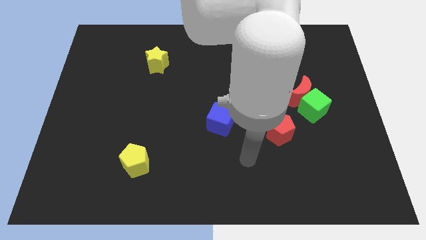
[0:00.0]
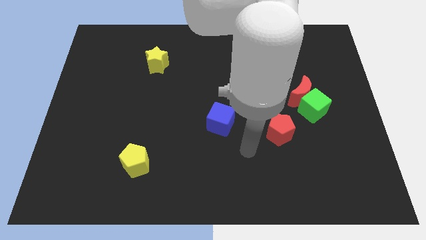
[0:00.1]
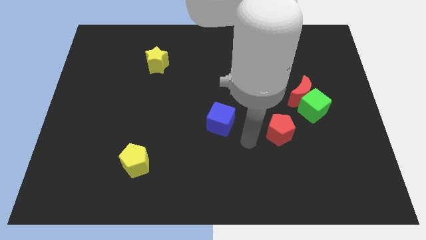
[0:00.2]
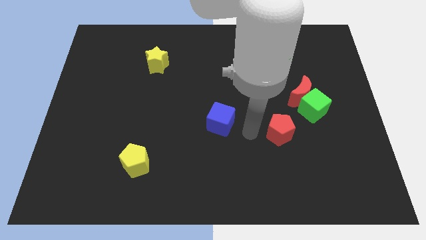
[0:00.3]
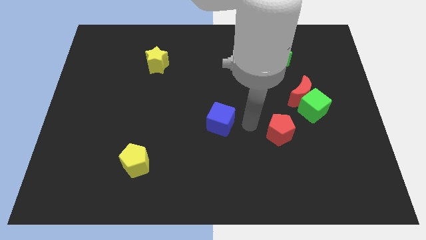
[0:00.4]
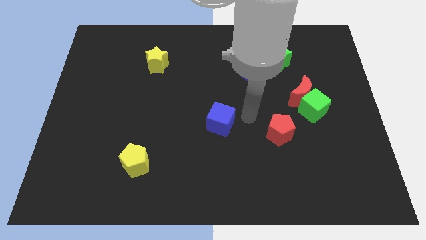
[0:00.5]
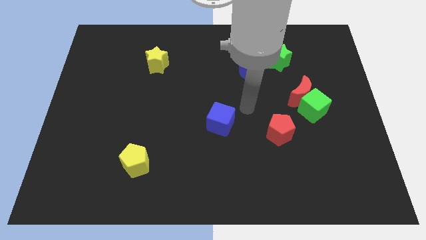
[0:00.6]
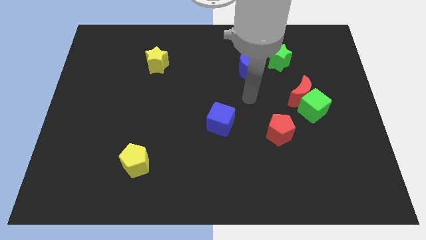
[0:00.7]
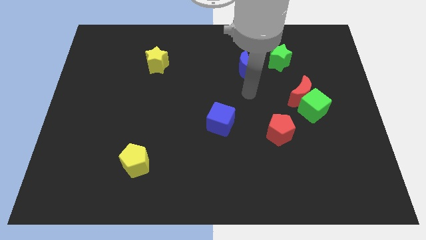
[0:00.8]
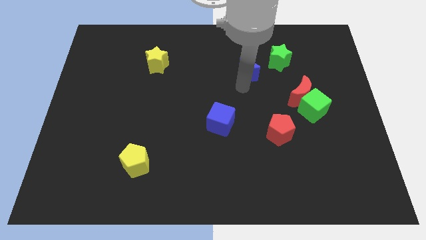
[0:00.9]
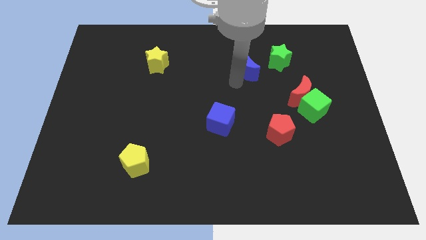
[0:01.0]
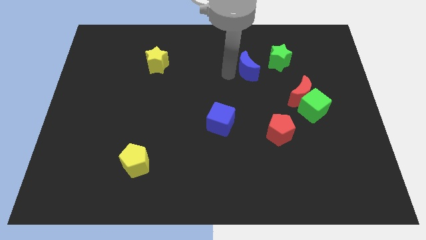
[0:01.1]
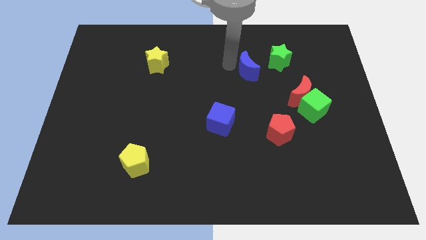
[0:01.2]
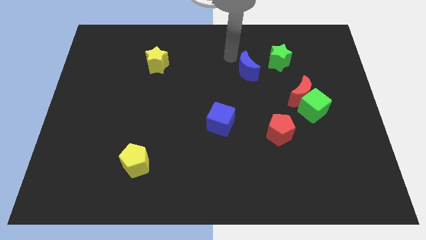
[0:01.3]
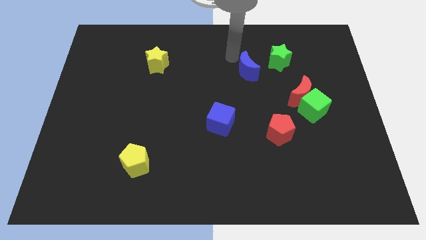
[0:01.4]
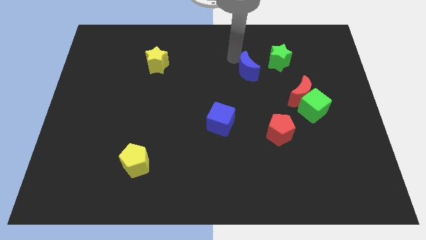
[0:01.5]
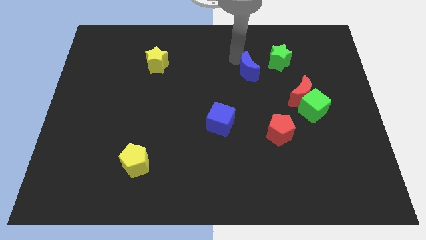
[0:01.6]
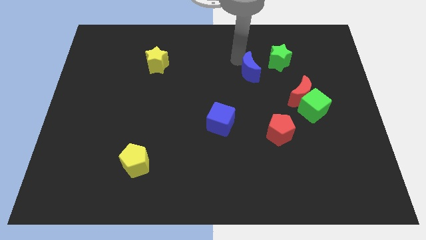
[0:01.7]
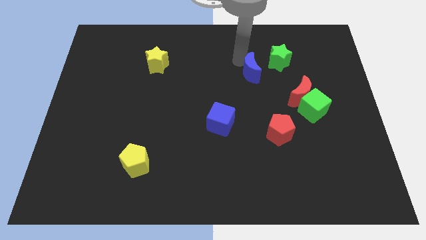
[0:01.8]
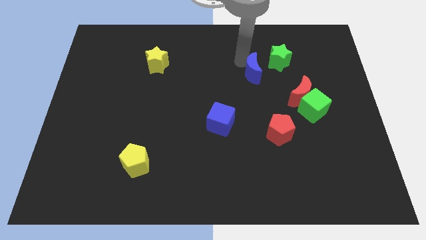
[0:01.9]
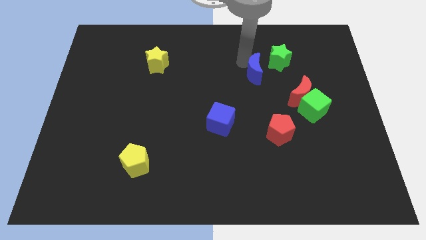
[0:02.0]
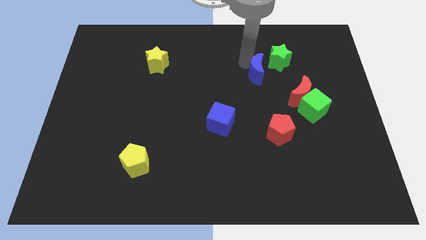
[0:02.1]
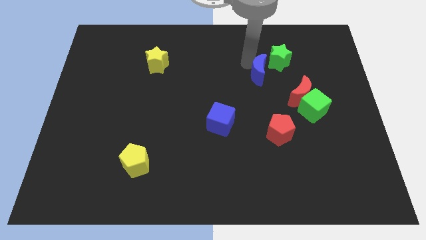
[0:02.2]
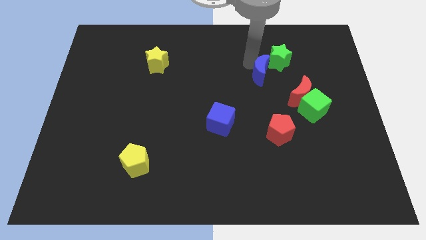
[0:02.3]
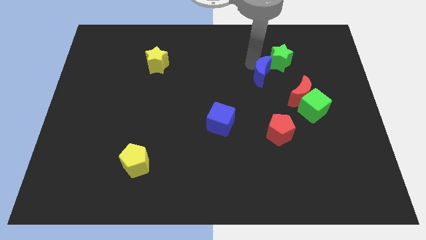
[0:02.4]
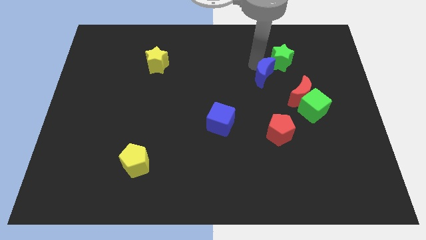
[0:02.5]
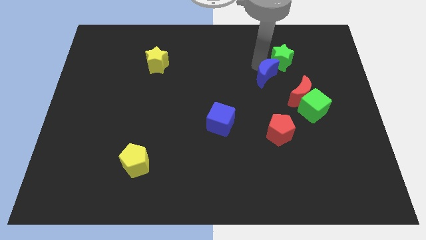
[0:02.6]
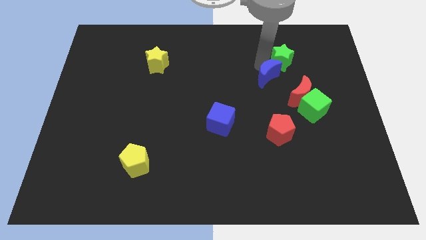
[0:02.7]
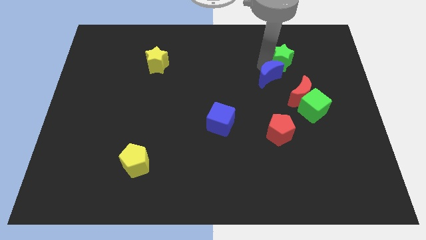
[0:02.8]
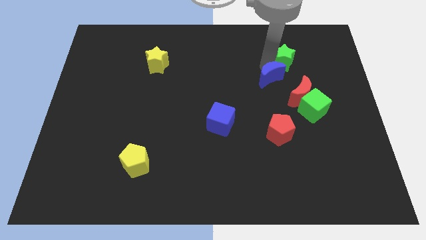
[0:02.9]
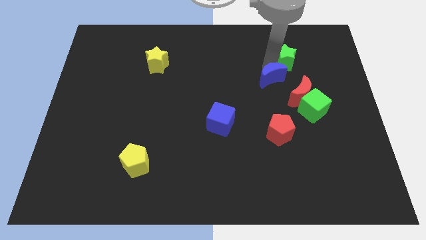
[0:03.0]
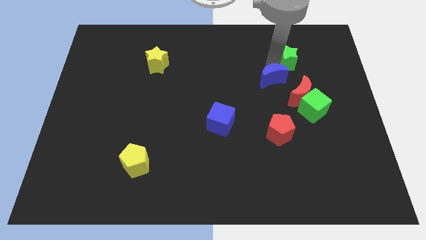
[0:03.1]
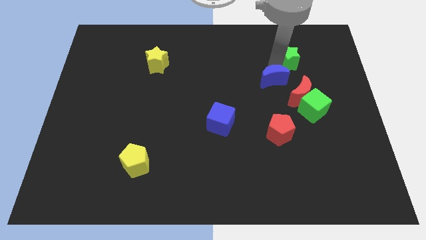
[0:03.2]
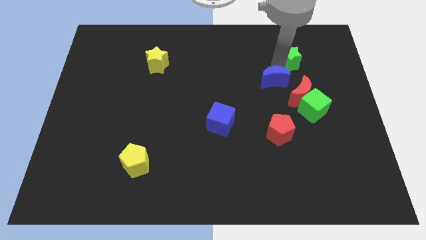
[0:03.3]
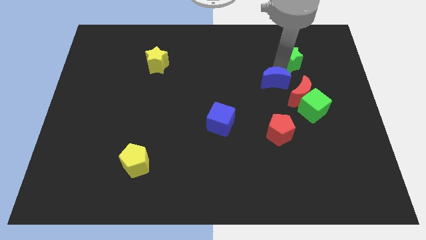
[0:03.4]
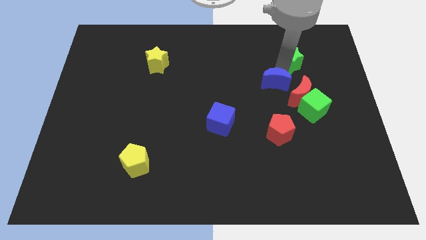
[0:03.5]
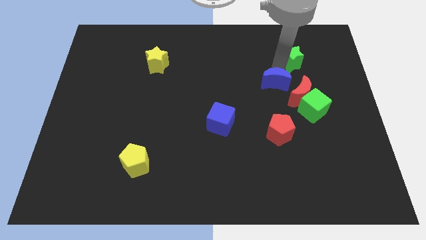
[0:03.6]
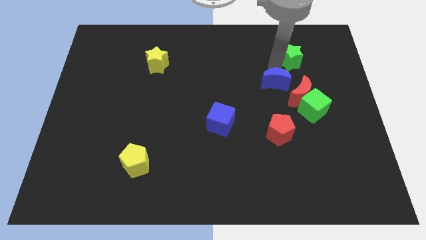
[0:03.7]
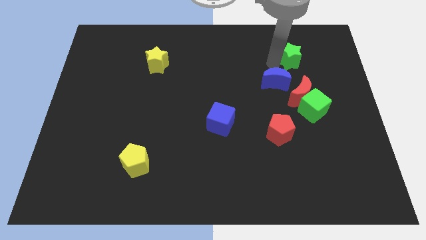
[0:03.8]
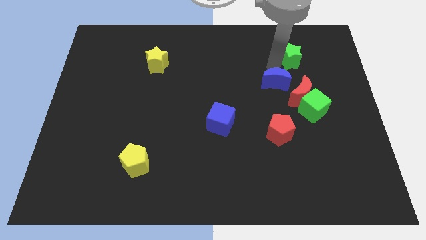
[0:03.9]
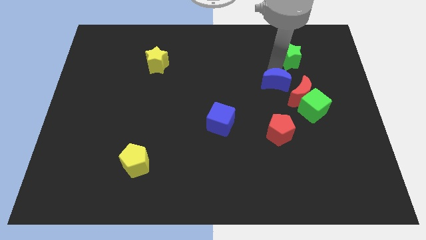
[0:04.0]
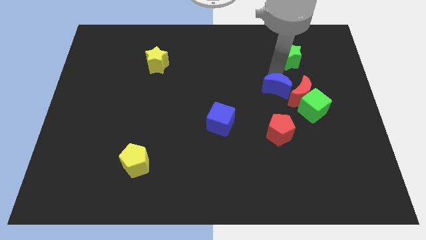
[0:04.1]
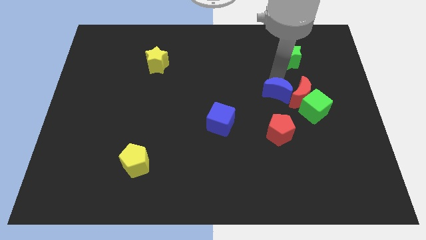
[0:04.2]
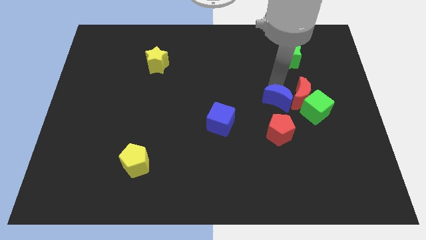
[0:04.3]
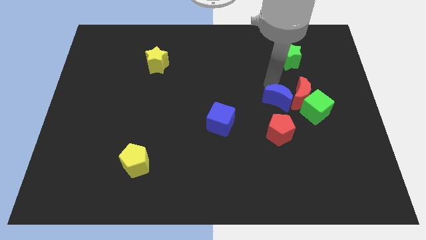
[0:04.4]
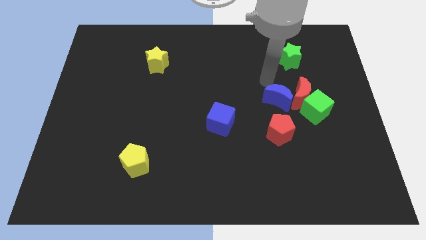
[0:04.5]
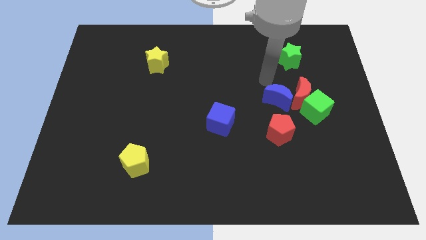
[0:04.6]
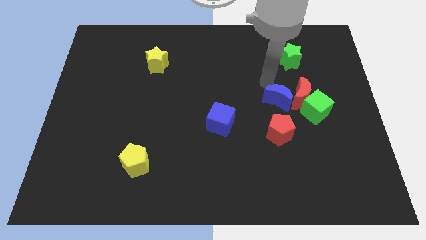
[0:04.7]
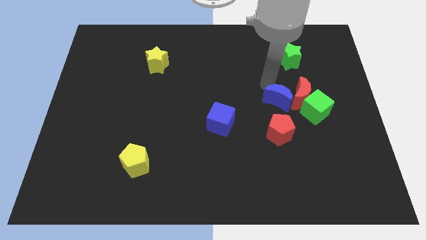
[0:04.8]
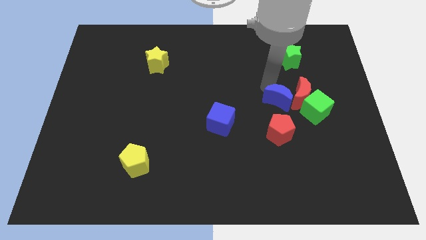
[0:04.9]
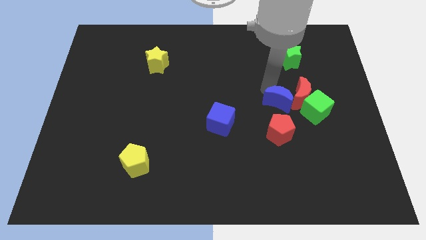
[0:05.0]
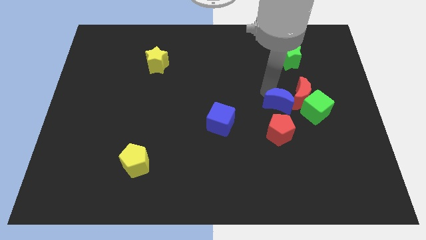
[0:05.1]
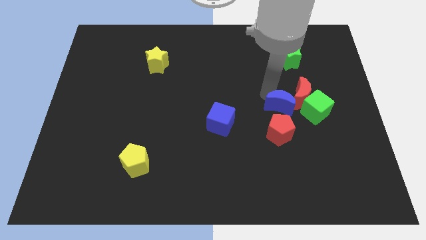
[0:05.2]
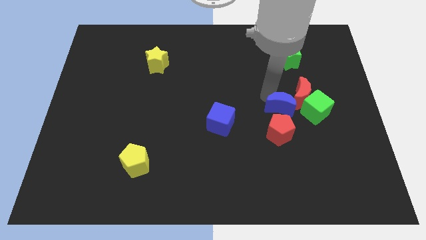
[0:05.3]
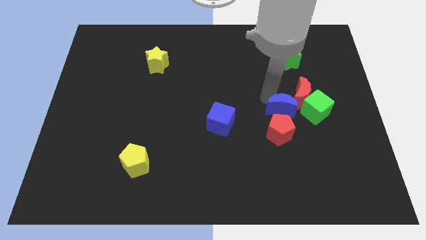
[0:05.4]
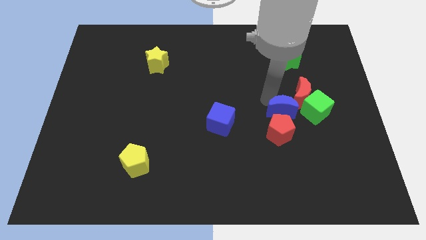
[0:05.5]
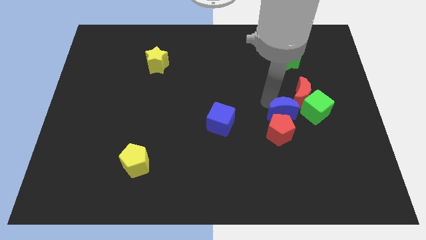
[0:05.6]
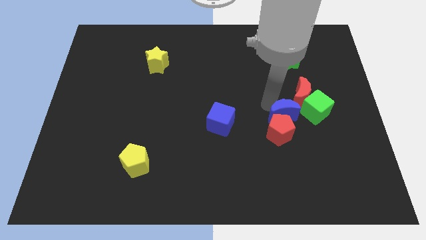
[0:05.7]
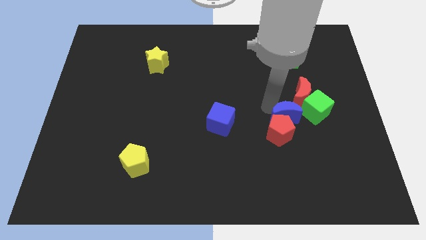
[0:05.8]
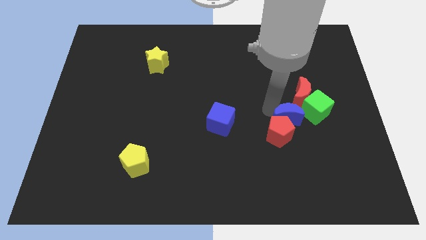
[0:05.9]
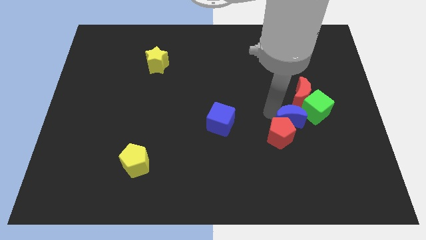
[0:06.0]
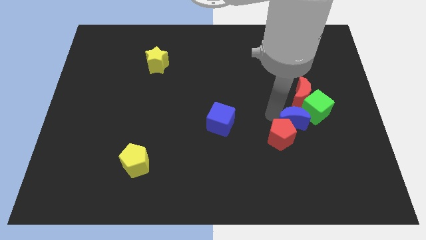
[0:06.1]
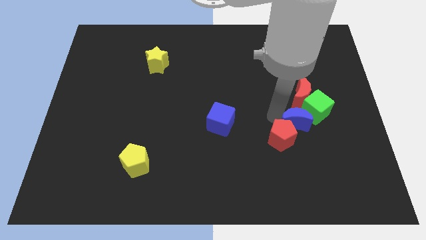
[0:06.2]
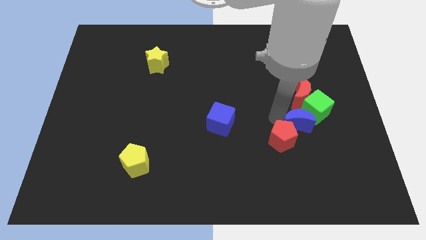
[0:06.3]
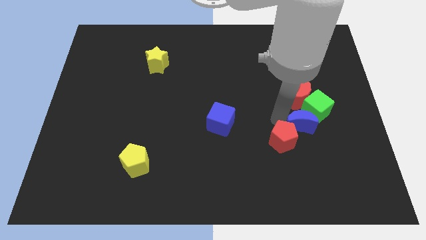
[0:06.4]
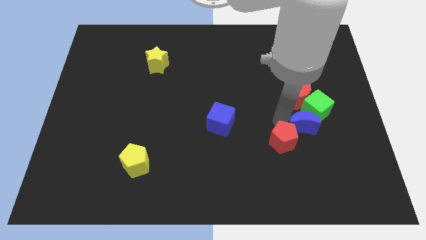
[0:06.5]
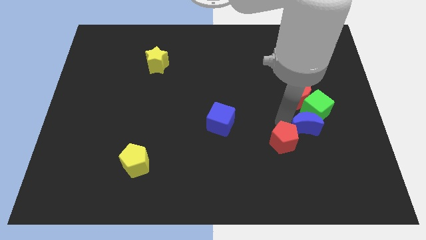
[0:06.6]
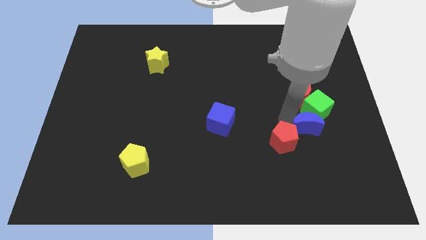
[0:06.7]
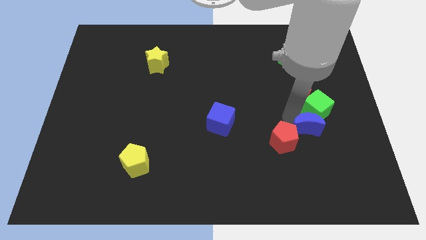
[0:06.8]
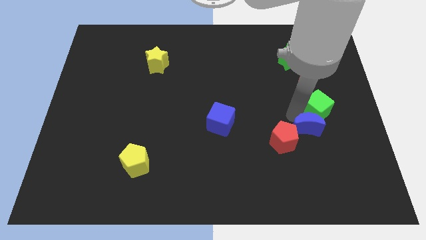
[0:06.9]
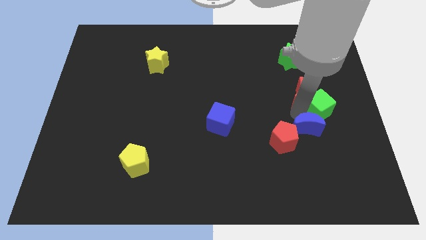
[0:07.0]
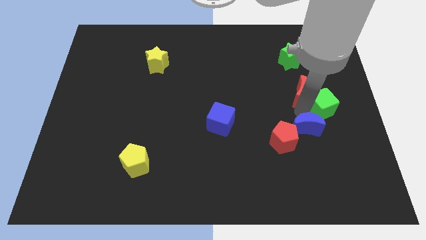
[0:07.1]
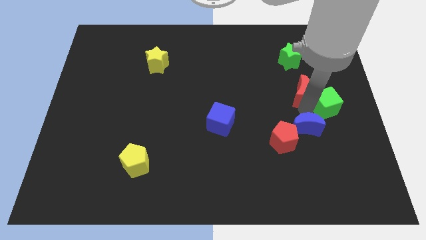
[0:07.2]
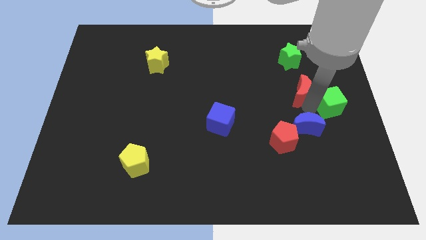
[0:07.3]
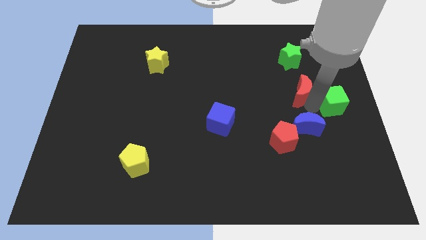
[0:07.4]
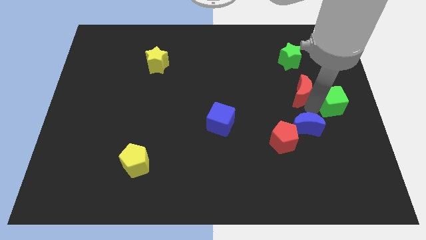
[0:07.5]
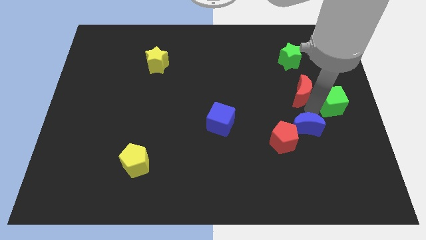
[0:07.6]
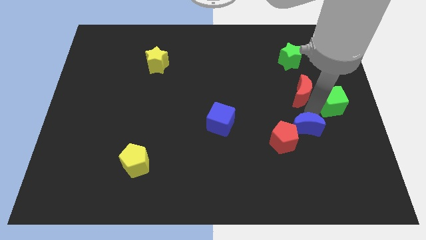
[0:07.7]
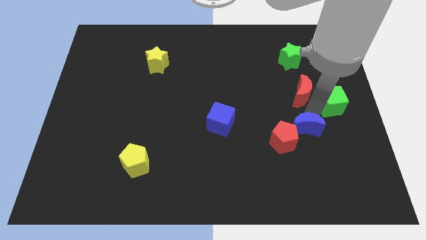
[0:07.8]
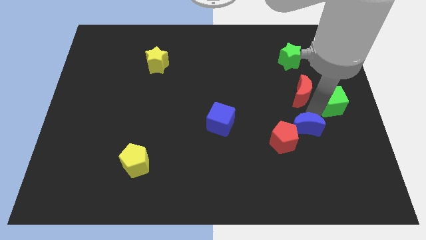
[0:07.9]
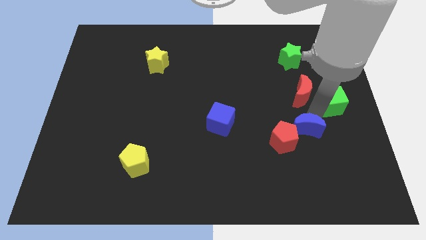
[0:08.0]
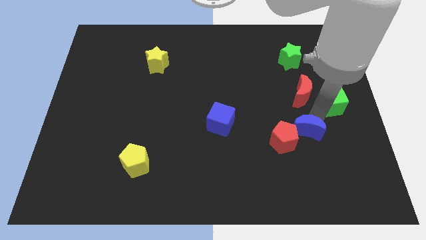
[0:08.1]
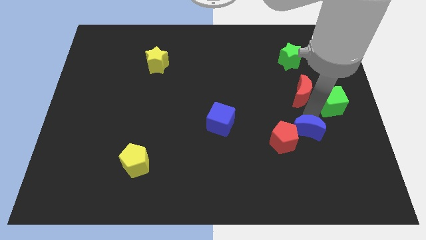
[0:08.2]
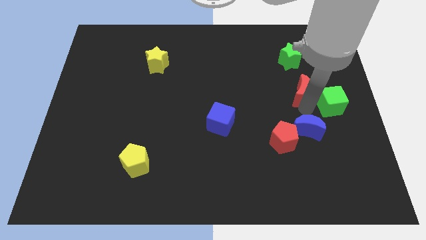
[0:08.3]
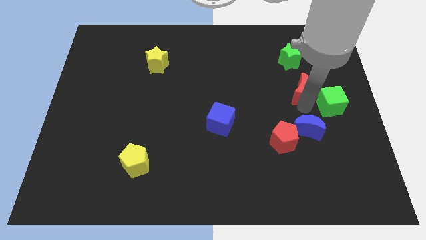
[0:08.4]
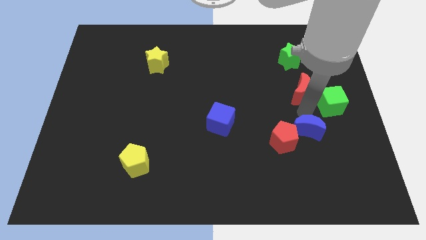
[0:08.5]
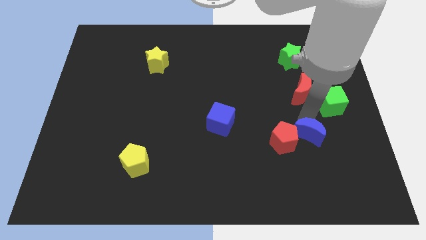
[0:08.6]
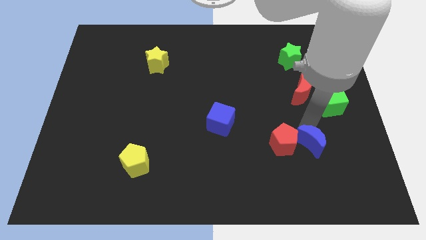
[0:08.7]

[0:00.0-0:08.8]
slide the blue moon diagonally down and to the right of the red pentagon
